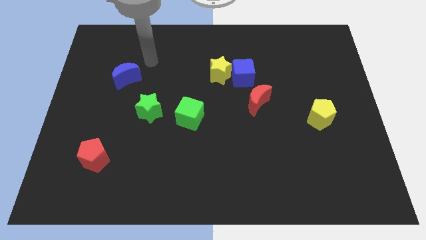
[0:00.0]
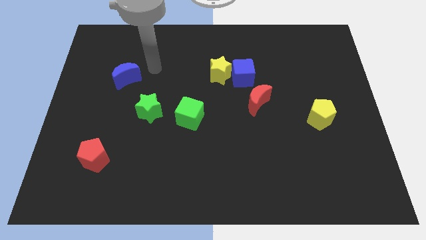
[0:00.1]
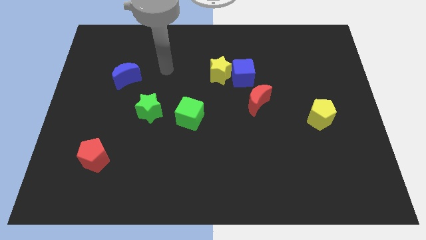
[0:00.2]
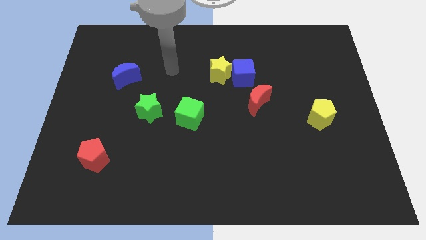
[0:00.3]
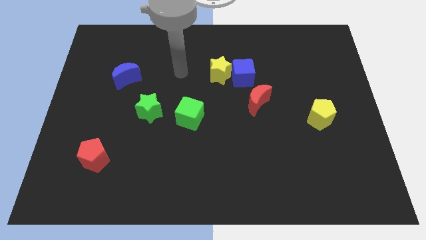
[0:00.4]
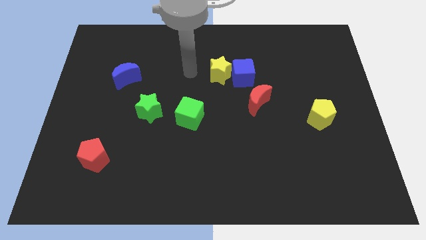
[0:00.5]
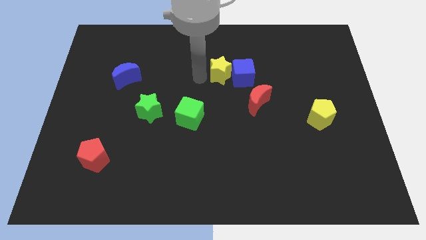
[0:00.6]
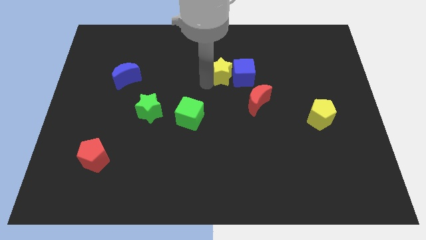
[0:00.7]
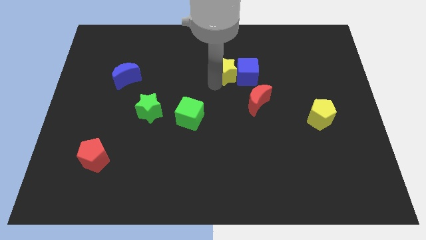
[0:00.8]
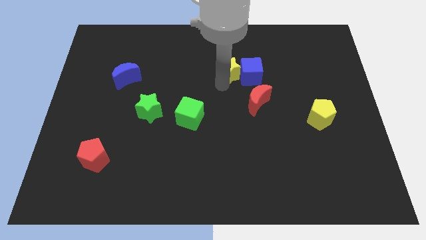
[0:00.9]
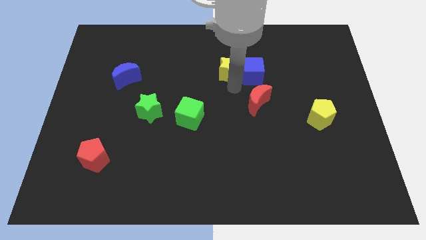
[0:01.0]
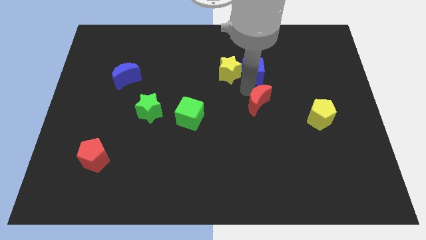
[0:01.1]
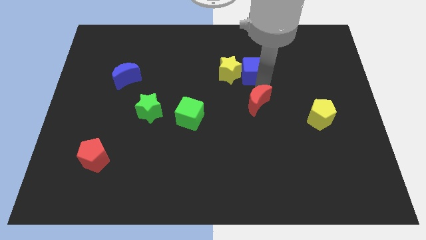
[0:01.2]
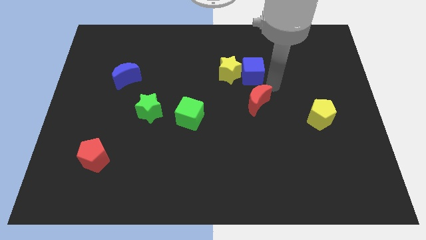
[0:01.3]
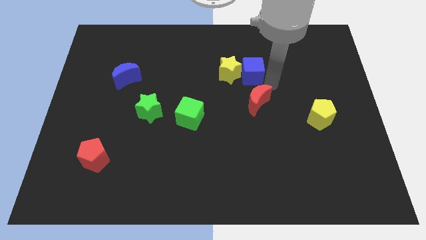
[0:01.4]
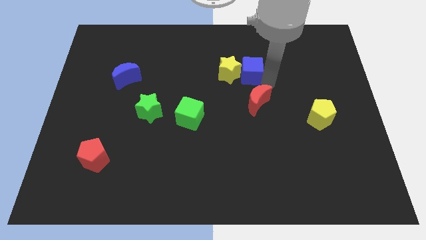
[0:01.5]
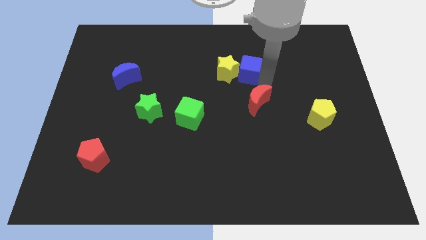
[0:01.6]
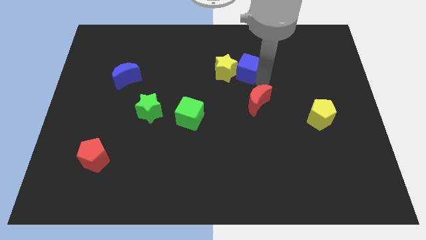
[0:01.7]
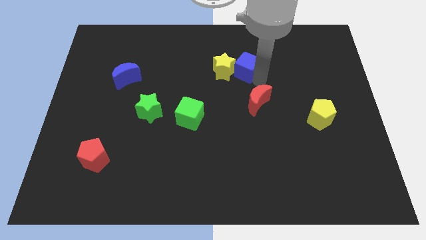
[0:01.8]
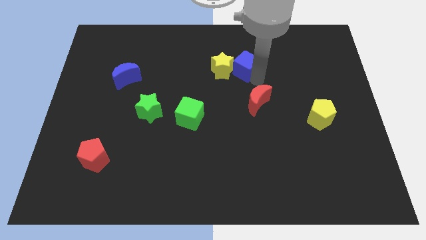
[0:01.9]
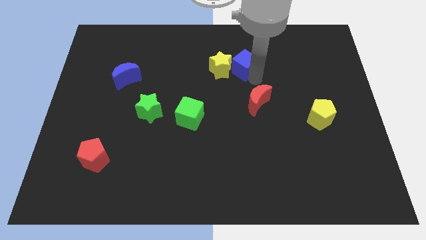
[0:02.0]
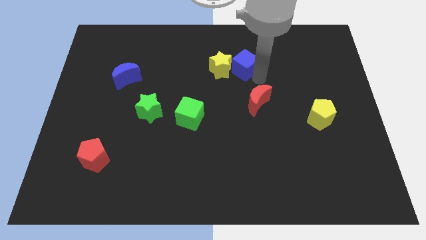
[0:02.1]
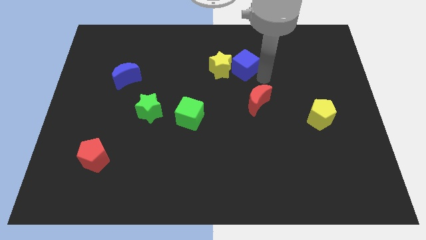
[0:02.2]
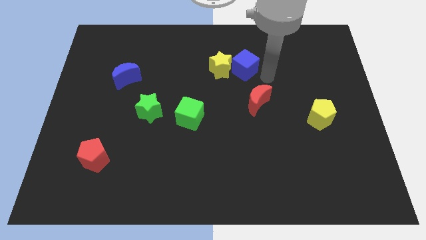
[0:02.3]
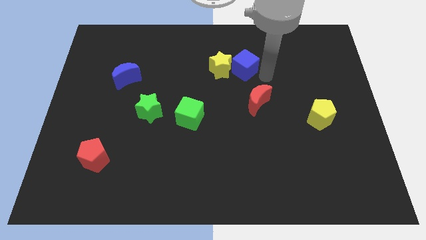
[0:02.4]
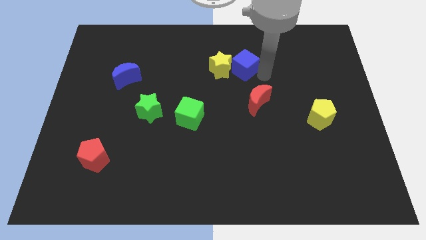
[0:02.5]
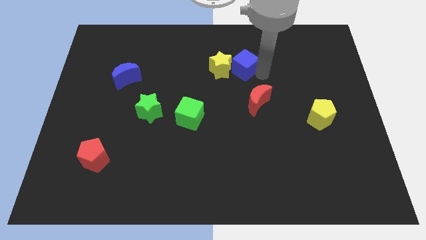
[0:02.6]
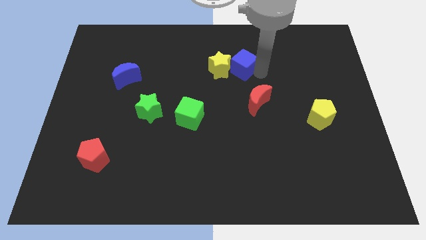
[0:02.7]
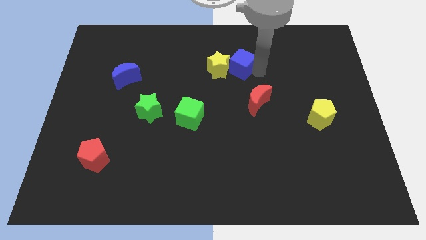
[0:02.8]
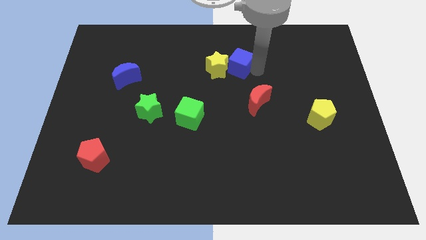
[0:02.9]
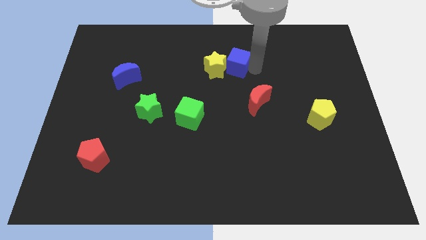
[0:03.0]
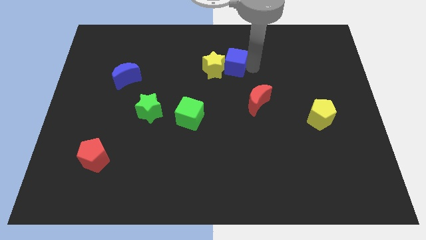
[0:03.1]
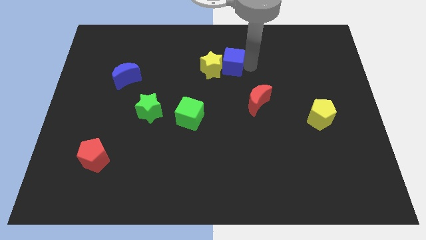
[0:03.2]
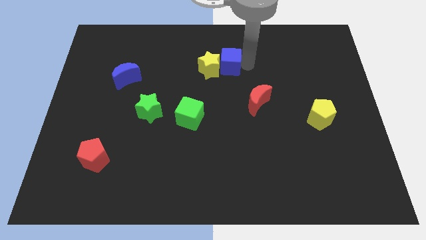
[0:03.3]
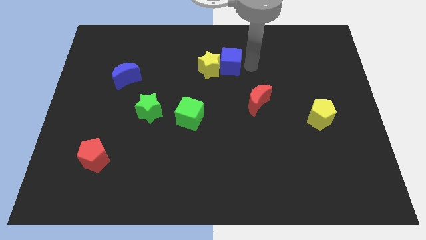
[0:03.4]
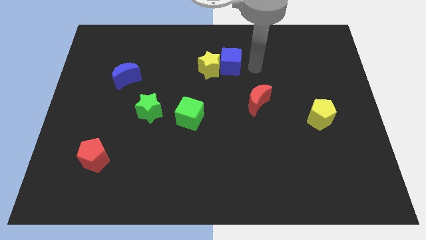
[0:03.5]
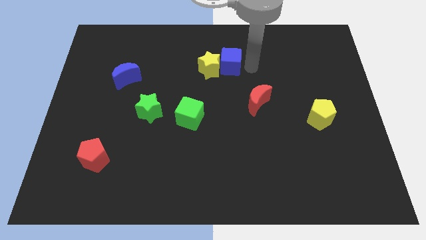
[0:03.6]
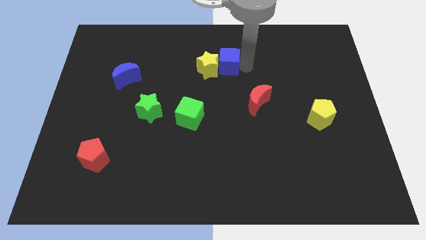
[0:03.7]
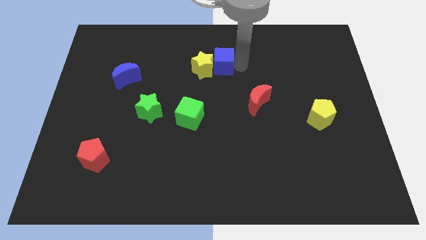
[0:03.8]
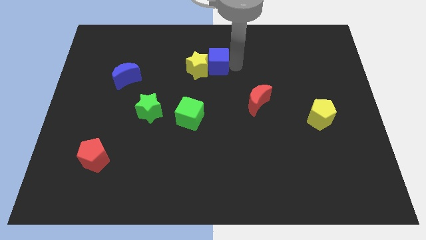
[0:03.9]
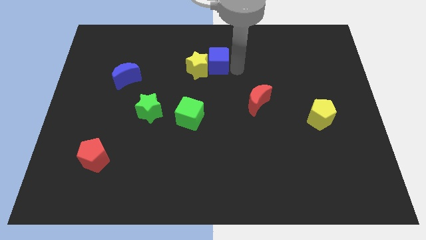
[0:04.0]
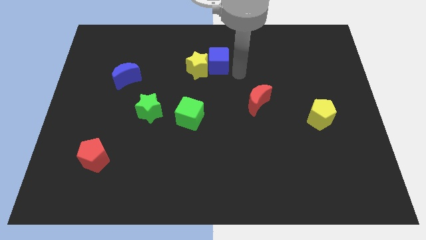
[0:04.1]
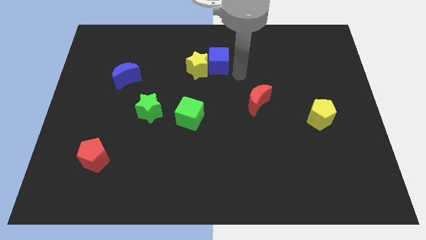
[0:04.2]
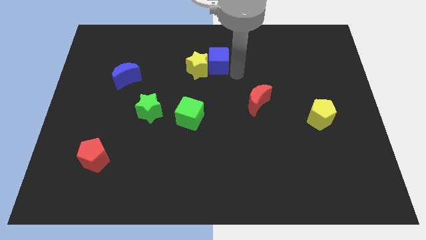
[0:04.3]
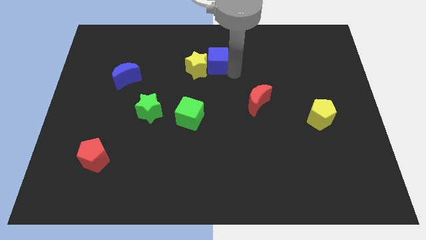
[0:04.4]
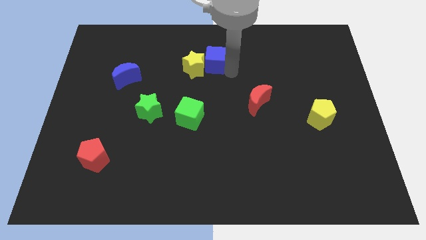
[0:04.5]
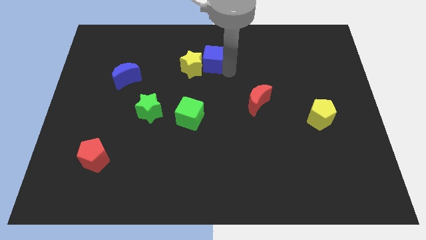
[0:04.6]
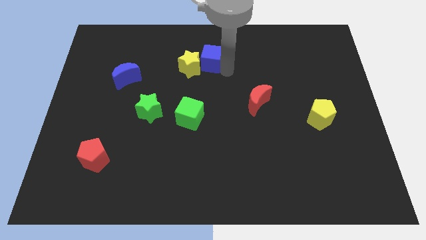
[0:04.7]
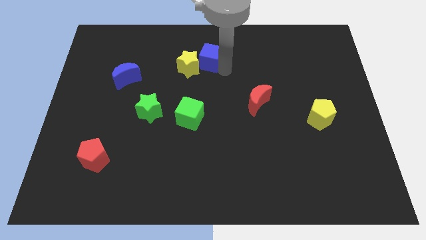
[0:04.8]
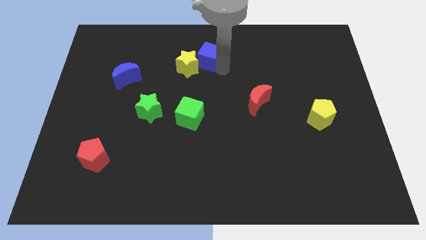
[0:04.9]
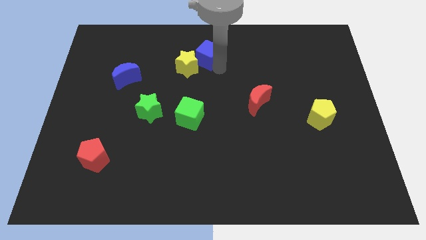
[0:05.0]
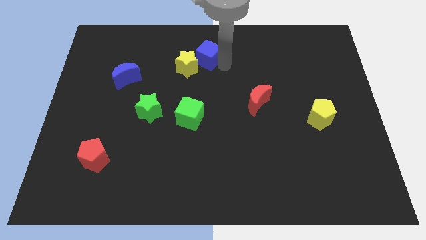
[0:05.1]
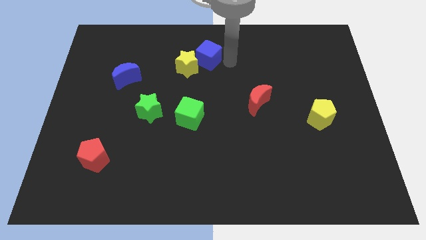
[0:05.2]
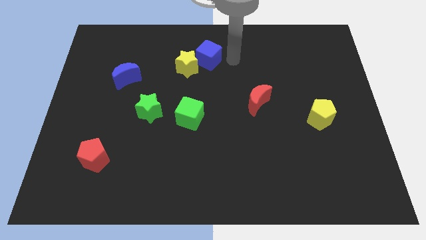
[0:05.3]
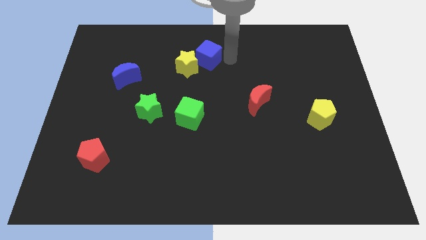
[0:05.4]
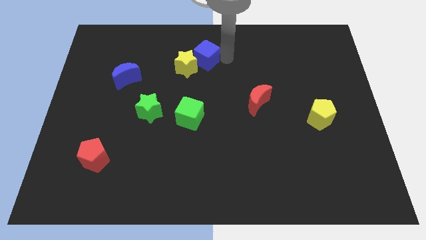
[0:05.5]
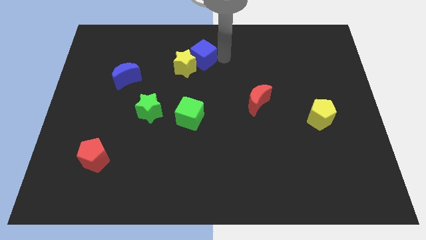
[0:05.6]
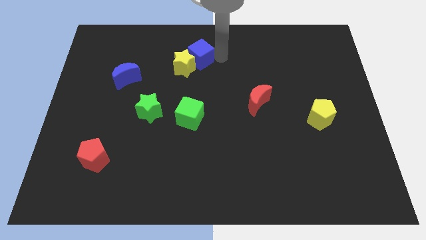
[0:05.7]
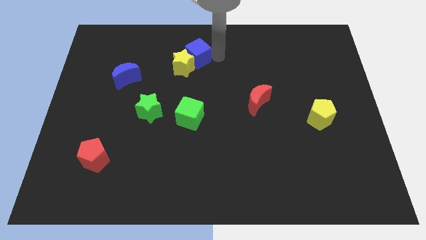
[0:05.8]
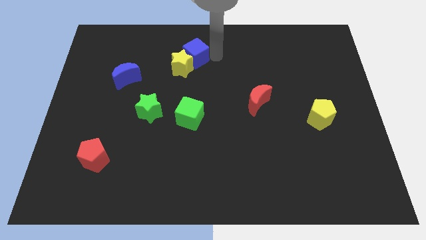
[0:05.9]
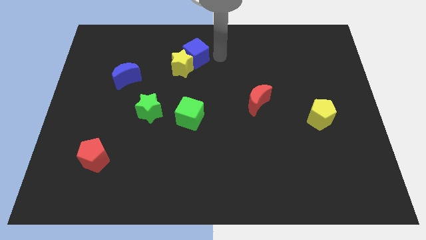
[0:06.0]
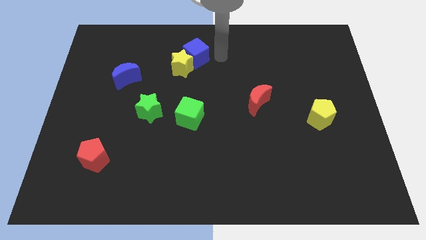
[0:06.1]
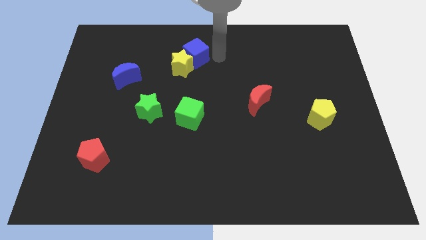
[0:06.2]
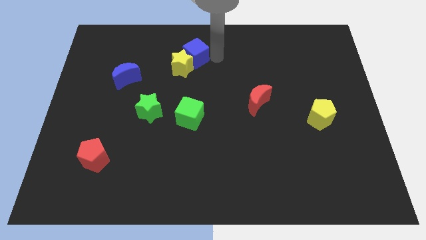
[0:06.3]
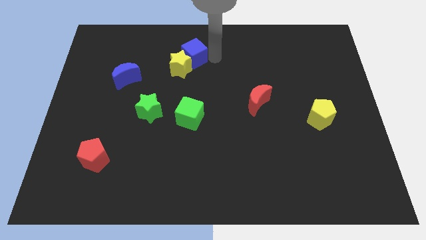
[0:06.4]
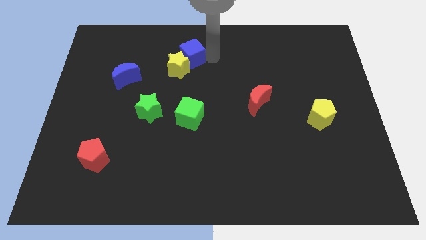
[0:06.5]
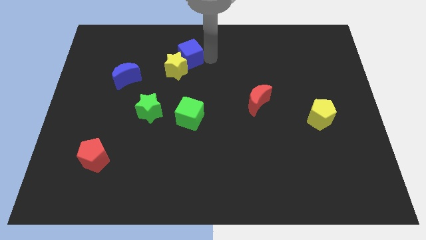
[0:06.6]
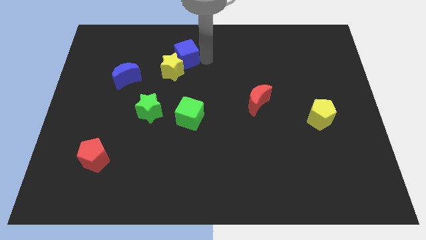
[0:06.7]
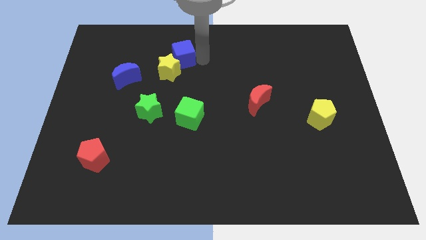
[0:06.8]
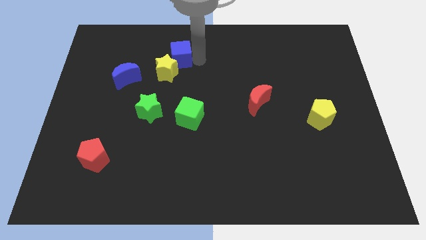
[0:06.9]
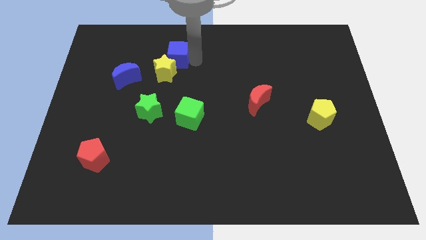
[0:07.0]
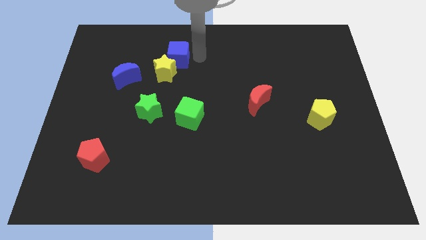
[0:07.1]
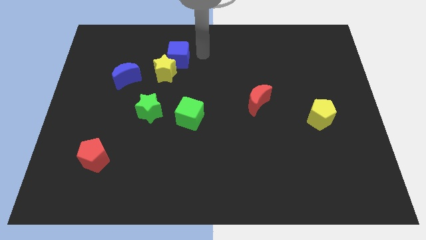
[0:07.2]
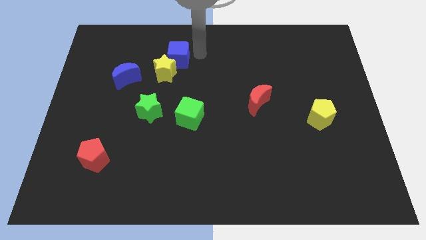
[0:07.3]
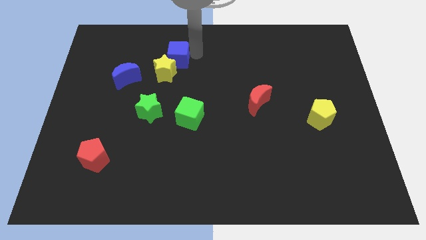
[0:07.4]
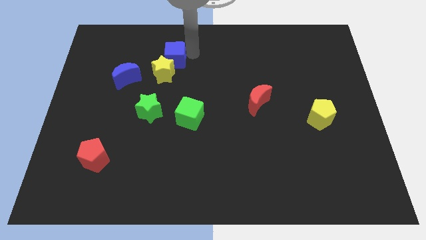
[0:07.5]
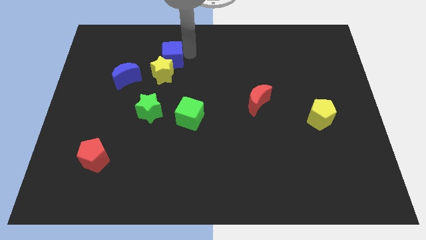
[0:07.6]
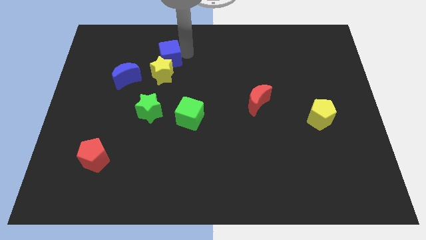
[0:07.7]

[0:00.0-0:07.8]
slide the blue cube to the top right of the blue moon

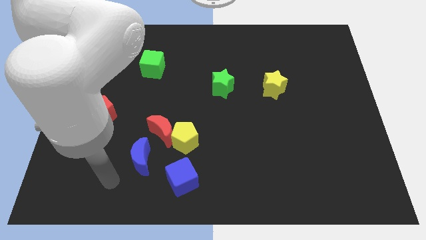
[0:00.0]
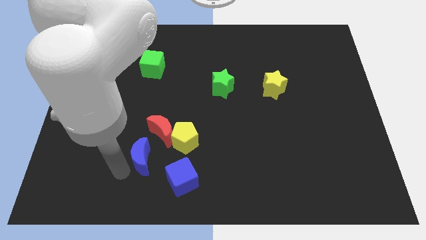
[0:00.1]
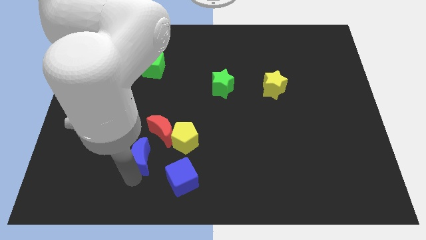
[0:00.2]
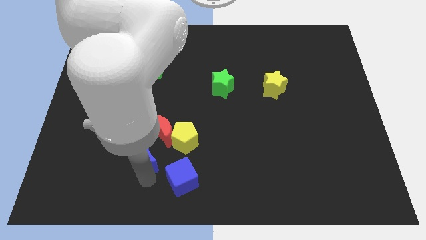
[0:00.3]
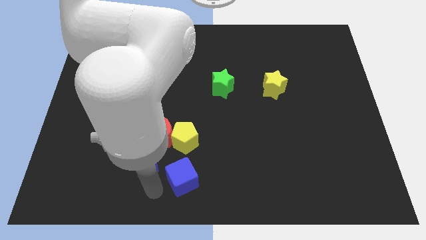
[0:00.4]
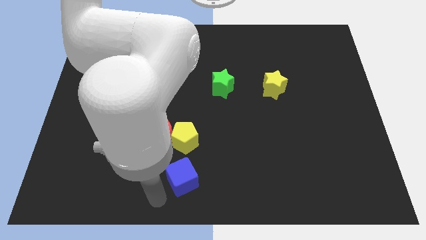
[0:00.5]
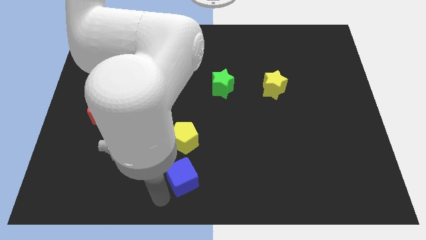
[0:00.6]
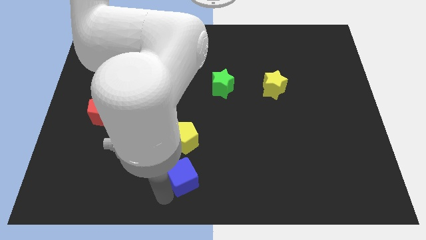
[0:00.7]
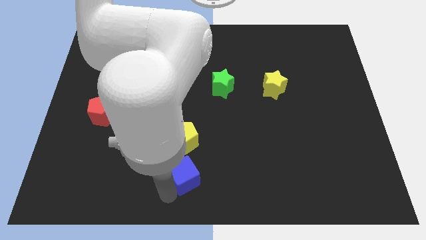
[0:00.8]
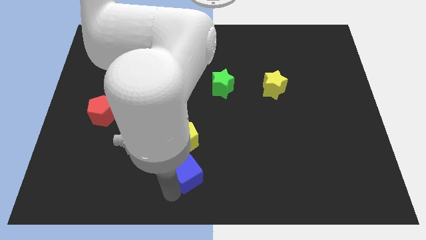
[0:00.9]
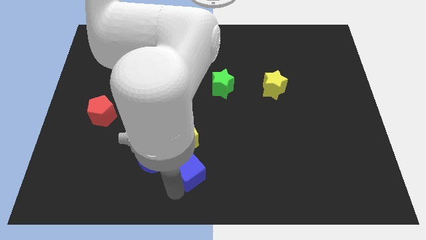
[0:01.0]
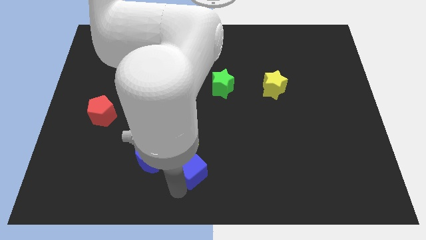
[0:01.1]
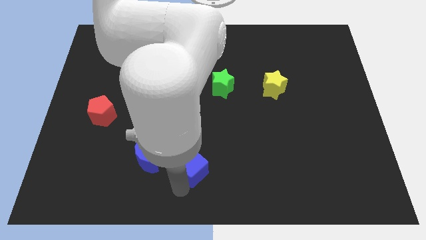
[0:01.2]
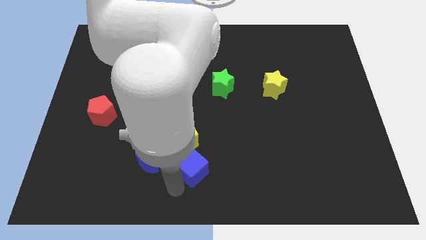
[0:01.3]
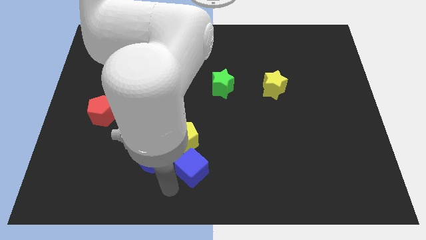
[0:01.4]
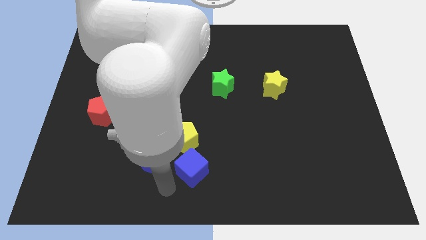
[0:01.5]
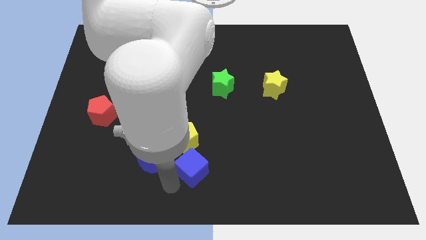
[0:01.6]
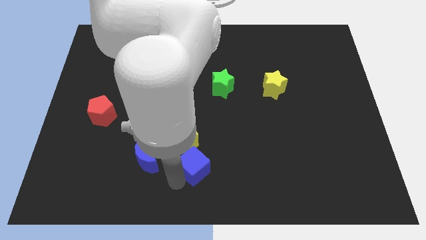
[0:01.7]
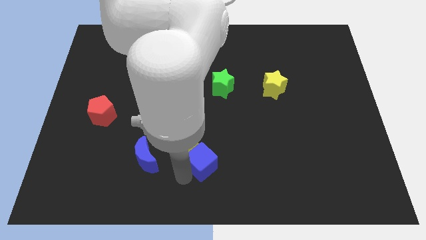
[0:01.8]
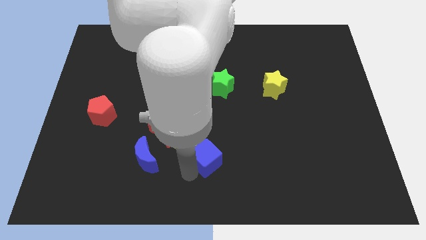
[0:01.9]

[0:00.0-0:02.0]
push the blue cube right of the yellow pentagon
